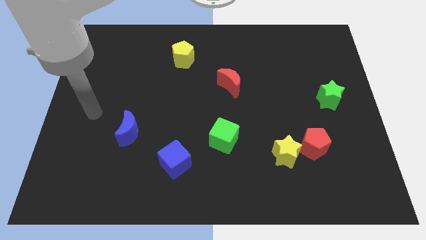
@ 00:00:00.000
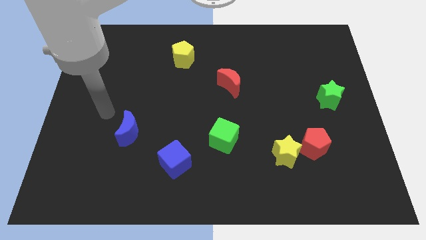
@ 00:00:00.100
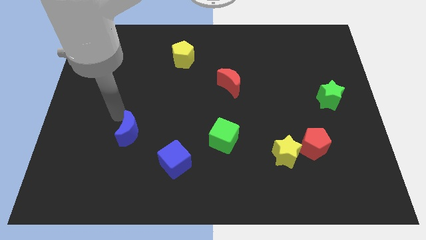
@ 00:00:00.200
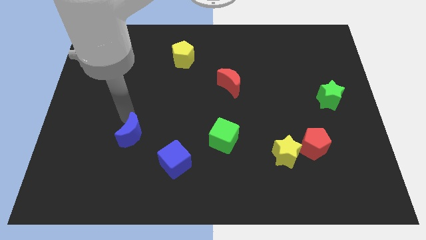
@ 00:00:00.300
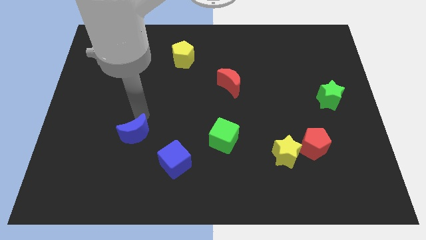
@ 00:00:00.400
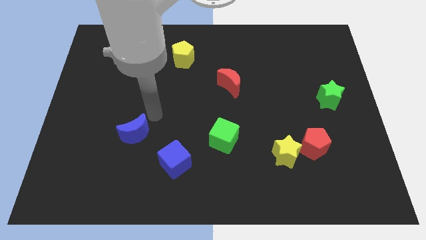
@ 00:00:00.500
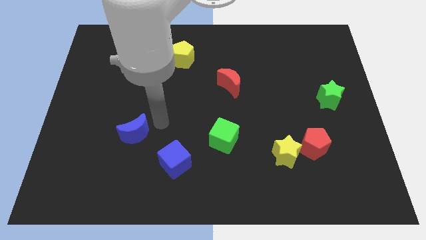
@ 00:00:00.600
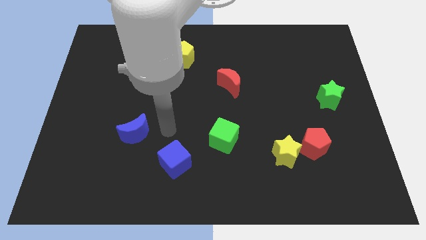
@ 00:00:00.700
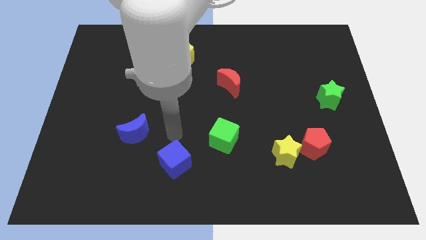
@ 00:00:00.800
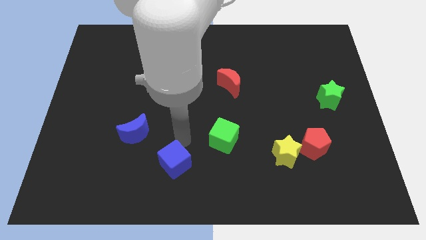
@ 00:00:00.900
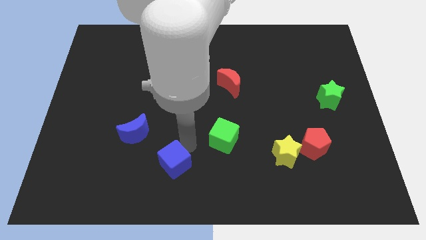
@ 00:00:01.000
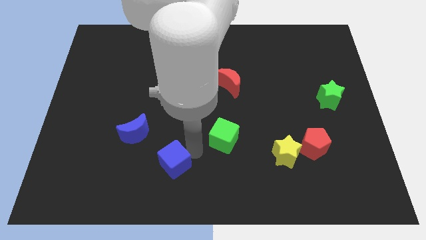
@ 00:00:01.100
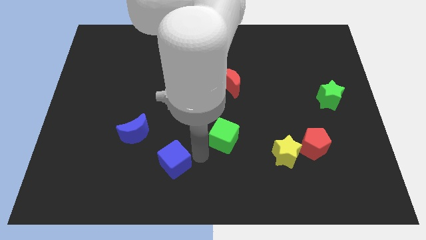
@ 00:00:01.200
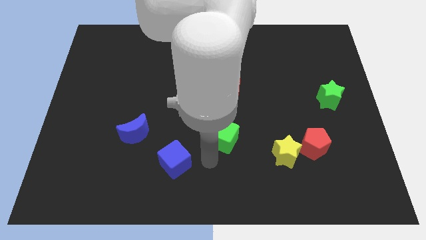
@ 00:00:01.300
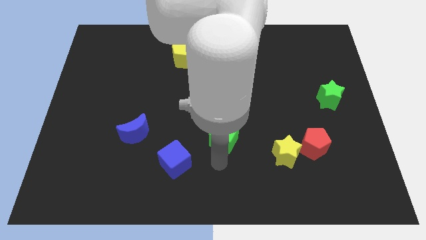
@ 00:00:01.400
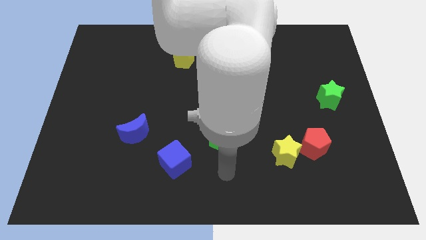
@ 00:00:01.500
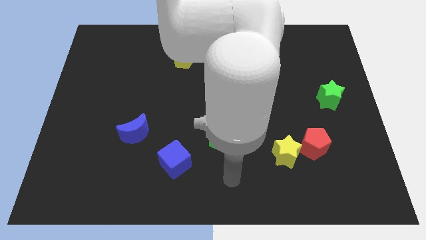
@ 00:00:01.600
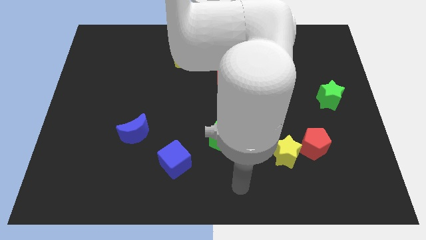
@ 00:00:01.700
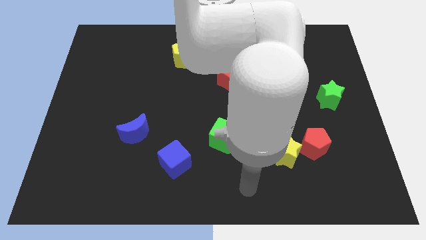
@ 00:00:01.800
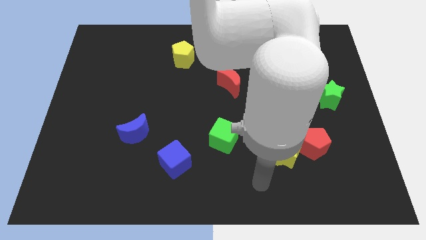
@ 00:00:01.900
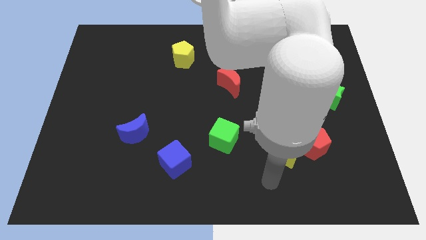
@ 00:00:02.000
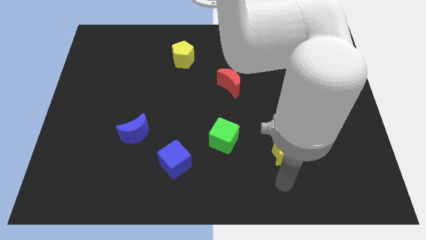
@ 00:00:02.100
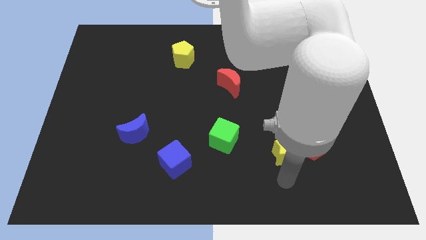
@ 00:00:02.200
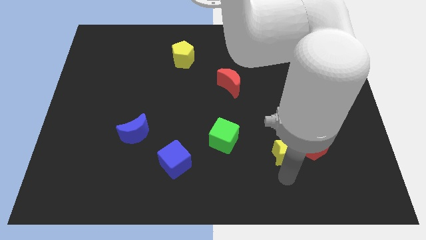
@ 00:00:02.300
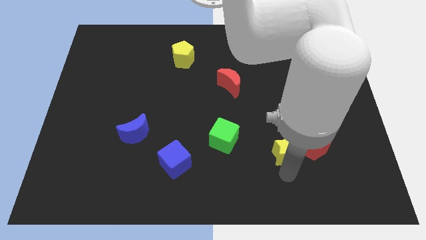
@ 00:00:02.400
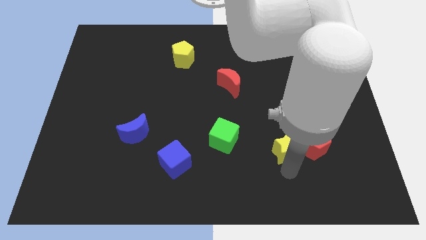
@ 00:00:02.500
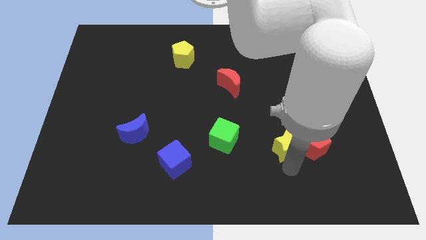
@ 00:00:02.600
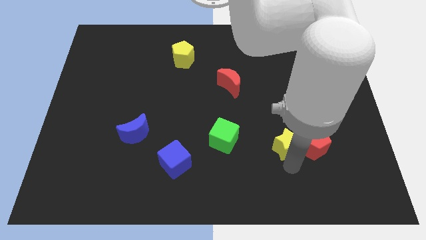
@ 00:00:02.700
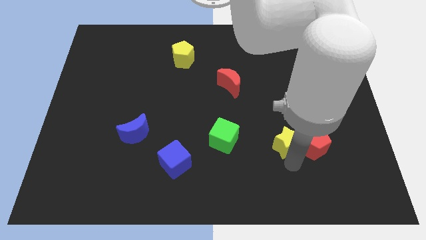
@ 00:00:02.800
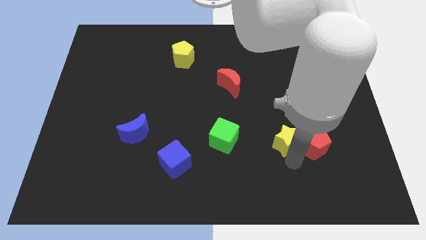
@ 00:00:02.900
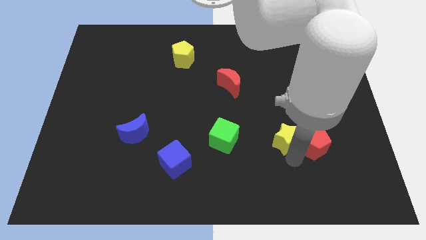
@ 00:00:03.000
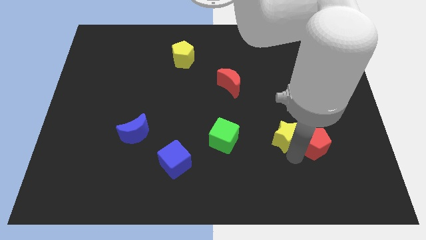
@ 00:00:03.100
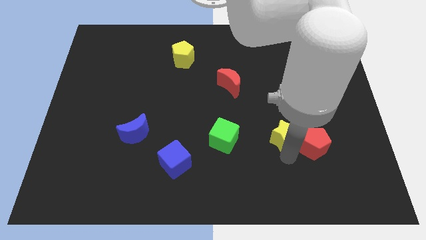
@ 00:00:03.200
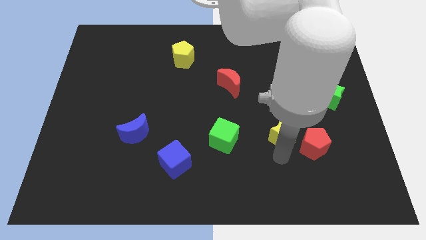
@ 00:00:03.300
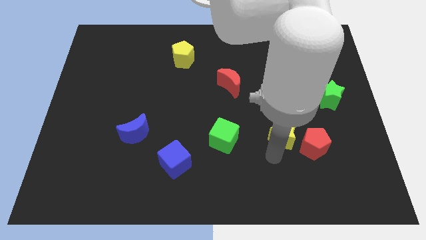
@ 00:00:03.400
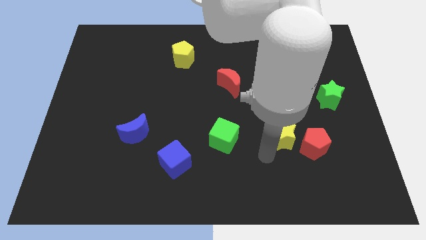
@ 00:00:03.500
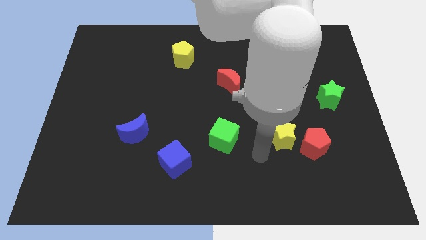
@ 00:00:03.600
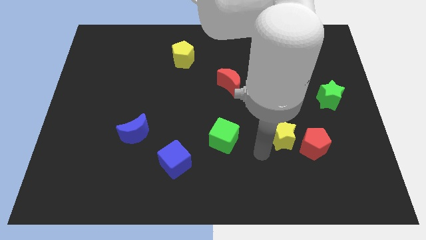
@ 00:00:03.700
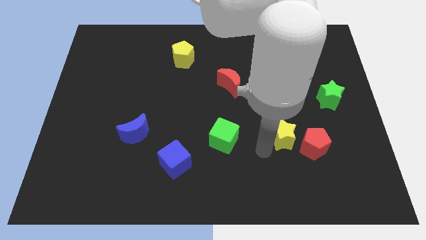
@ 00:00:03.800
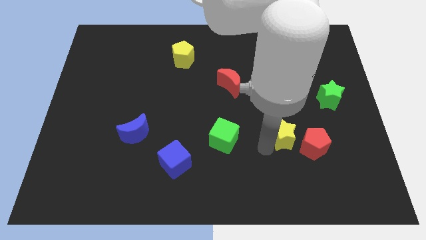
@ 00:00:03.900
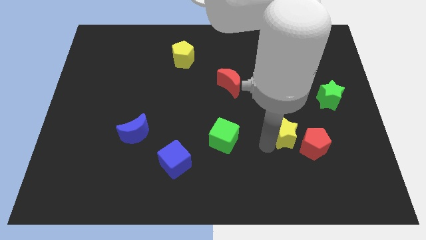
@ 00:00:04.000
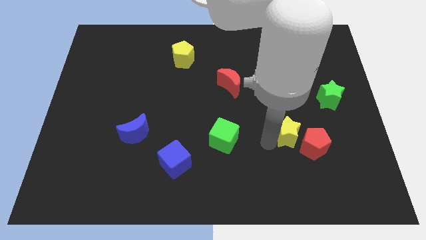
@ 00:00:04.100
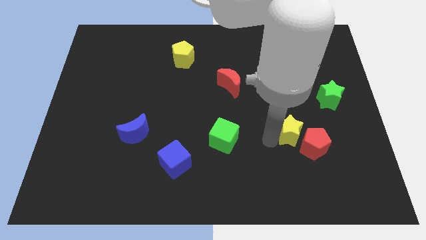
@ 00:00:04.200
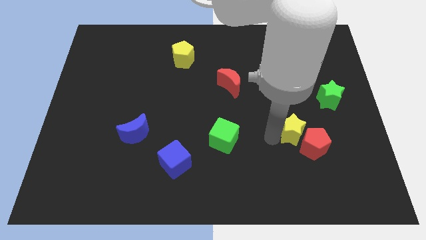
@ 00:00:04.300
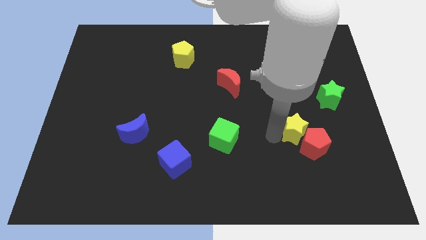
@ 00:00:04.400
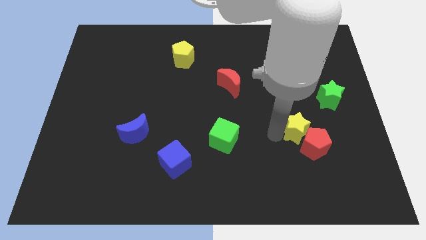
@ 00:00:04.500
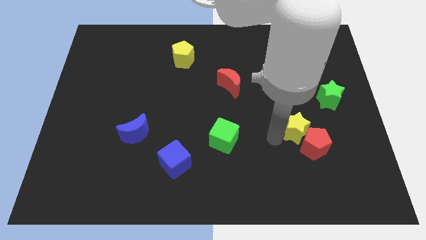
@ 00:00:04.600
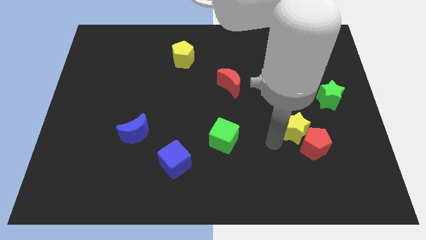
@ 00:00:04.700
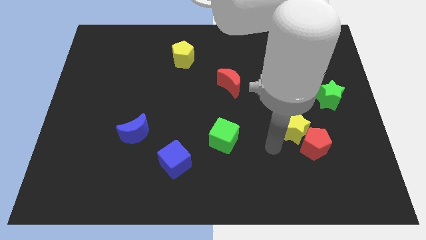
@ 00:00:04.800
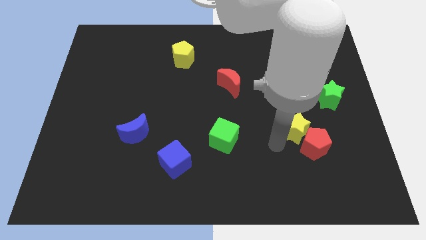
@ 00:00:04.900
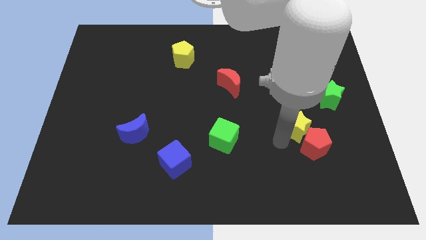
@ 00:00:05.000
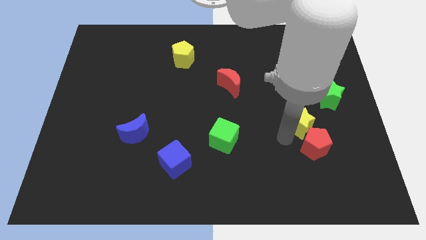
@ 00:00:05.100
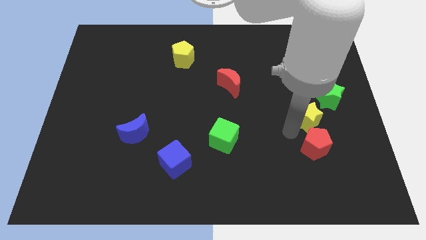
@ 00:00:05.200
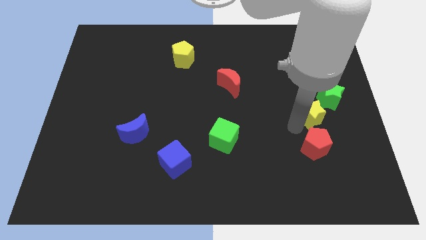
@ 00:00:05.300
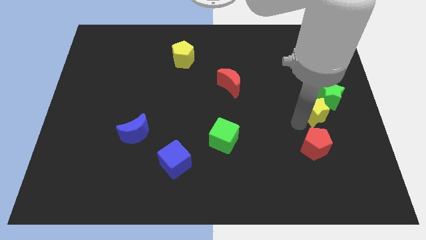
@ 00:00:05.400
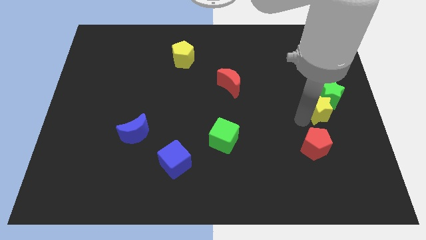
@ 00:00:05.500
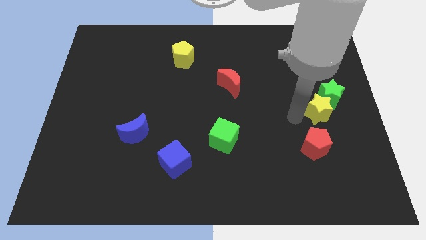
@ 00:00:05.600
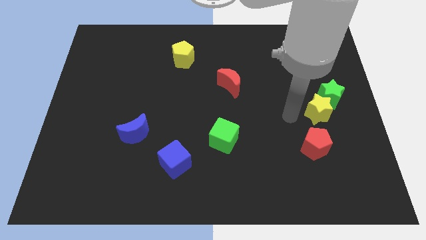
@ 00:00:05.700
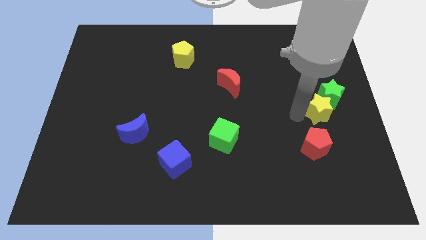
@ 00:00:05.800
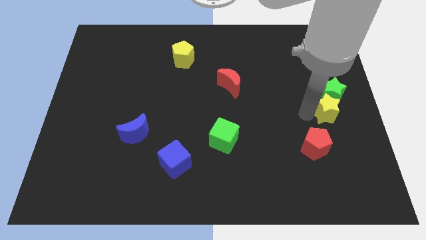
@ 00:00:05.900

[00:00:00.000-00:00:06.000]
slide the yellow star to the right side of the board
